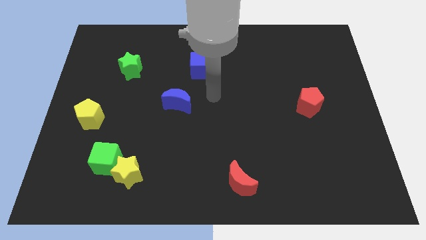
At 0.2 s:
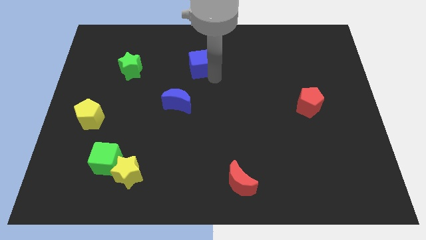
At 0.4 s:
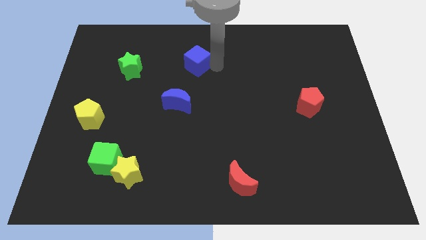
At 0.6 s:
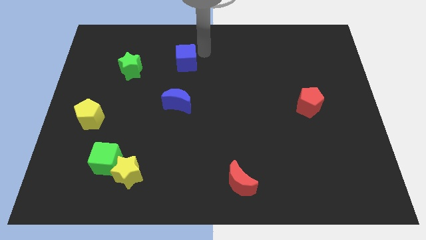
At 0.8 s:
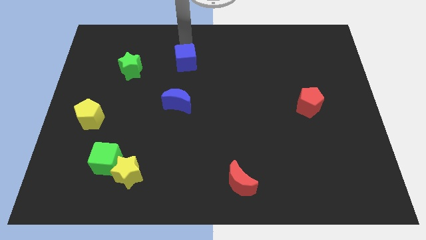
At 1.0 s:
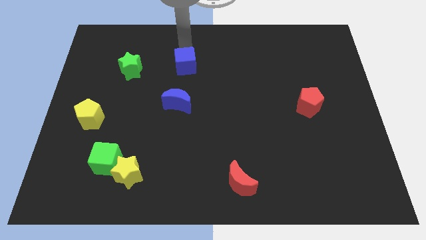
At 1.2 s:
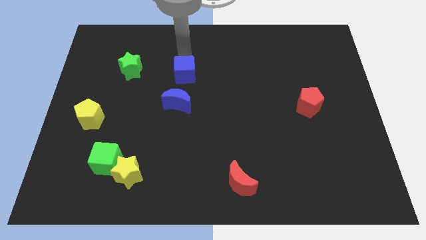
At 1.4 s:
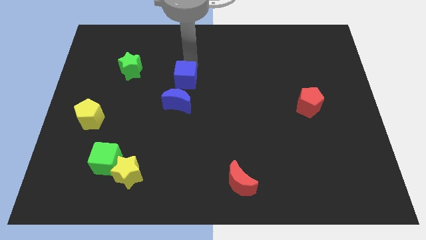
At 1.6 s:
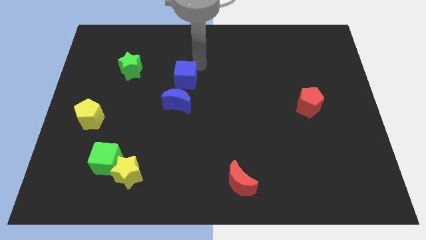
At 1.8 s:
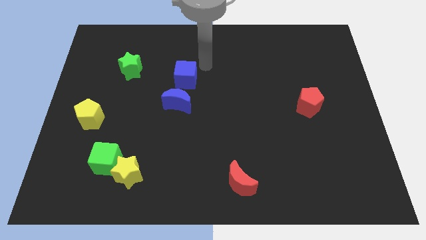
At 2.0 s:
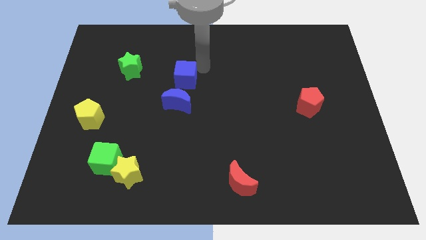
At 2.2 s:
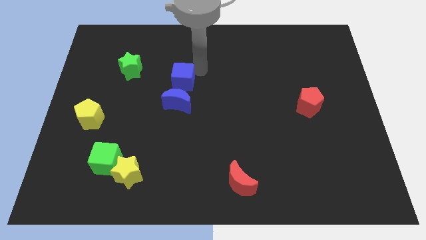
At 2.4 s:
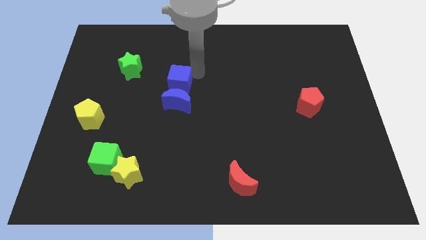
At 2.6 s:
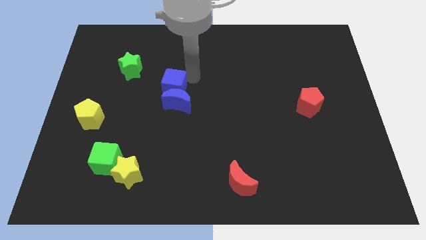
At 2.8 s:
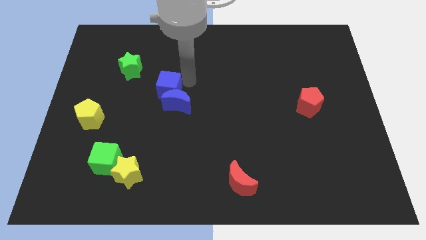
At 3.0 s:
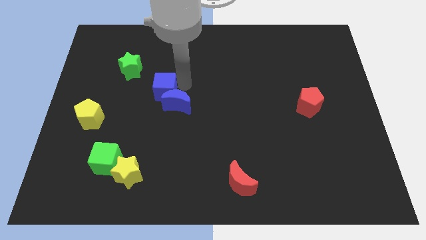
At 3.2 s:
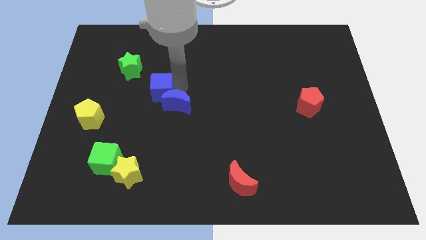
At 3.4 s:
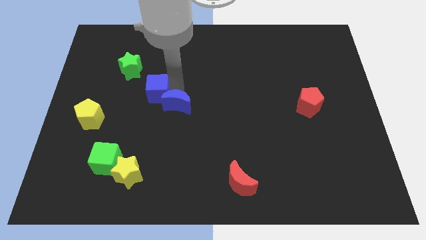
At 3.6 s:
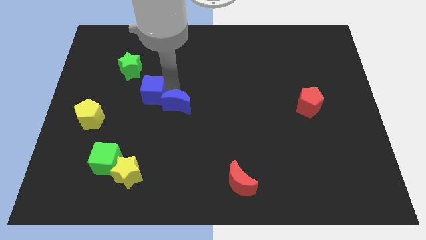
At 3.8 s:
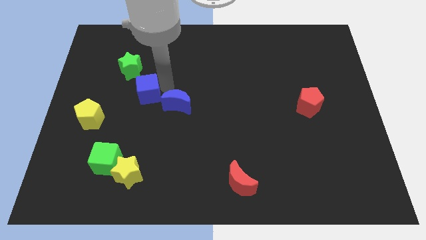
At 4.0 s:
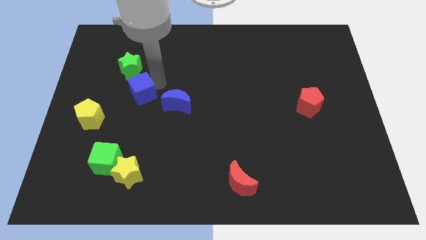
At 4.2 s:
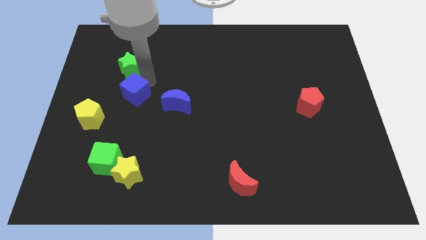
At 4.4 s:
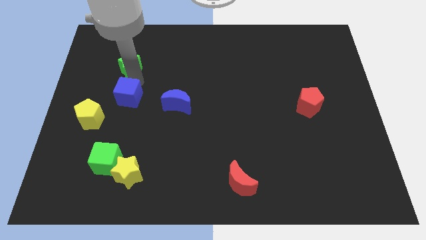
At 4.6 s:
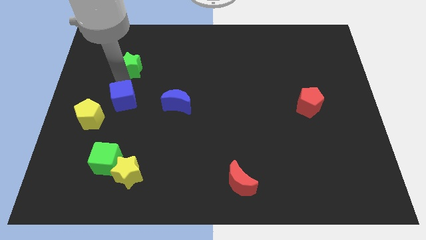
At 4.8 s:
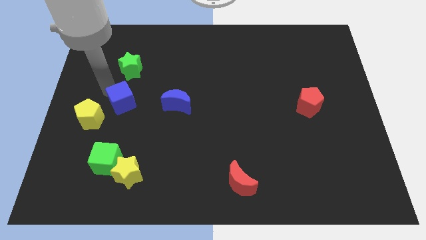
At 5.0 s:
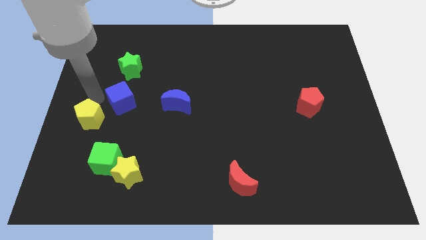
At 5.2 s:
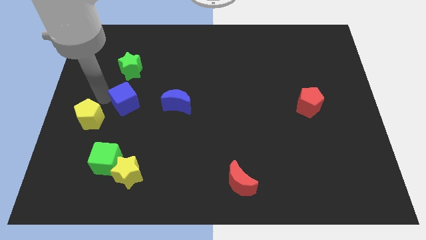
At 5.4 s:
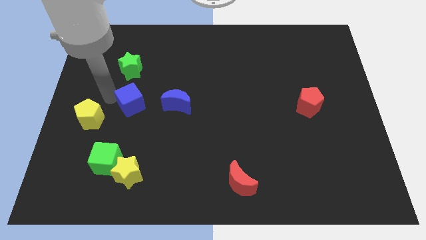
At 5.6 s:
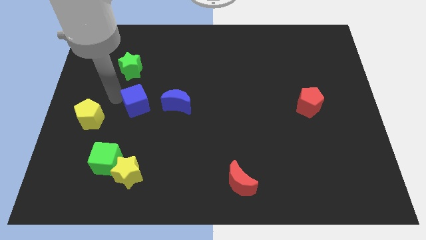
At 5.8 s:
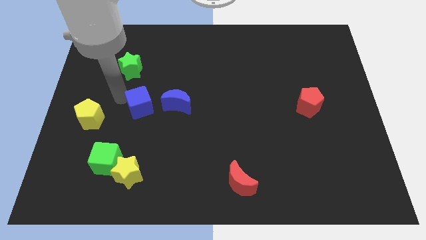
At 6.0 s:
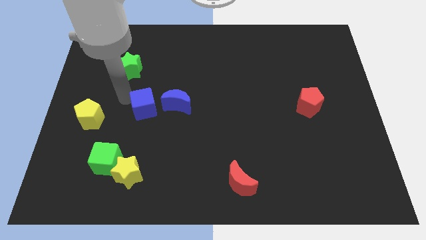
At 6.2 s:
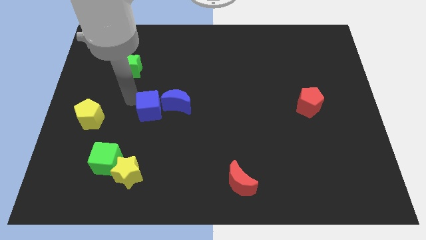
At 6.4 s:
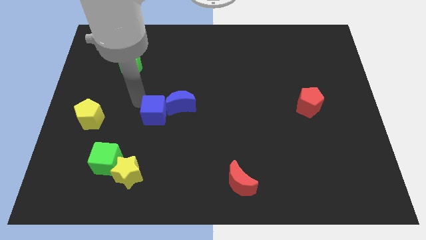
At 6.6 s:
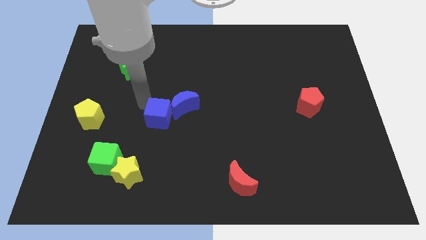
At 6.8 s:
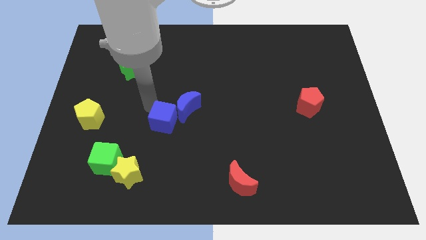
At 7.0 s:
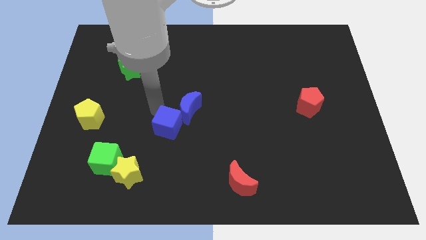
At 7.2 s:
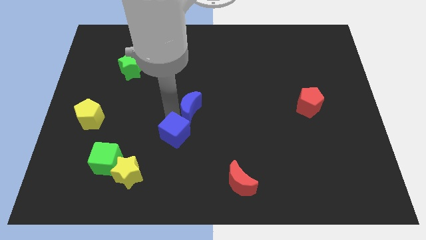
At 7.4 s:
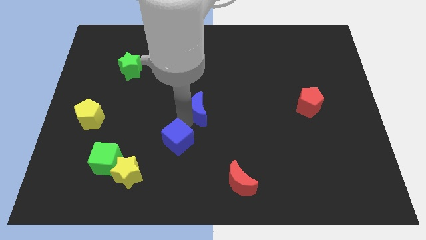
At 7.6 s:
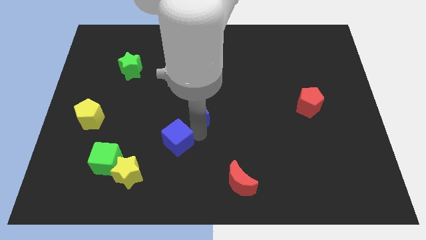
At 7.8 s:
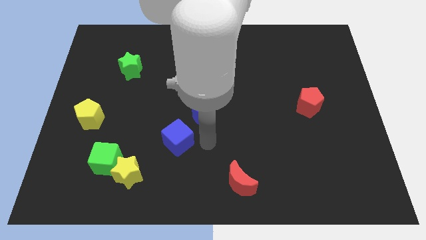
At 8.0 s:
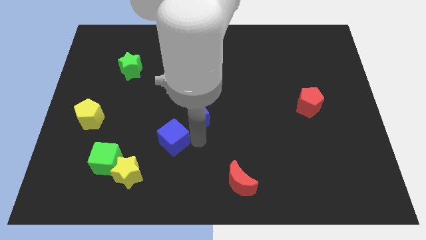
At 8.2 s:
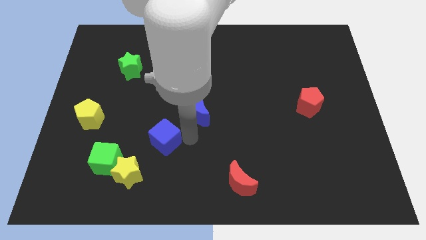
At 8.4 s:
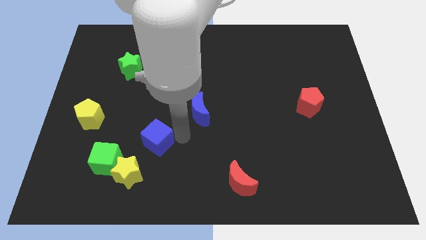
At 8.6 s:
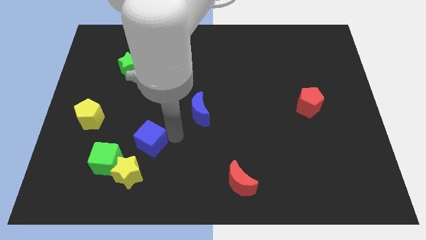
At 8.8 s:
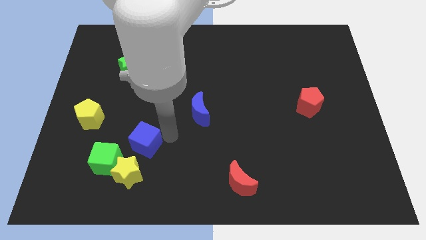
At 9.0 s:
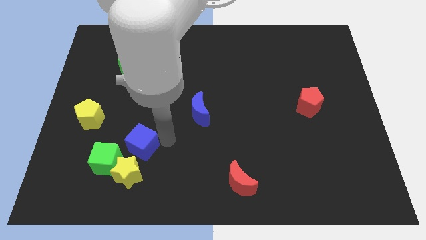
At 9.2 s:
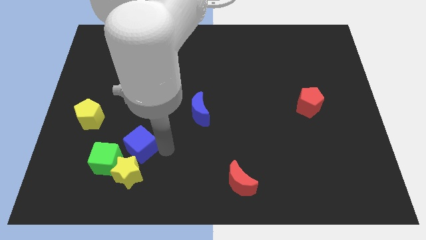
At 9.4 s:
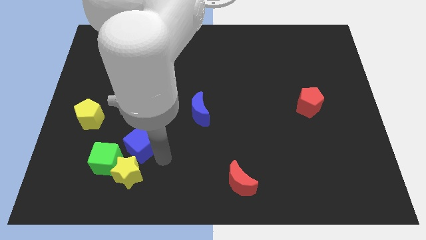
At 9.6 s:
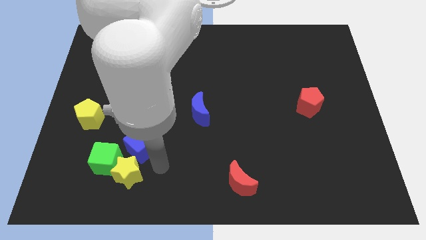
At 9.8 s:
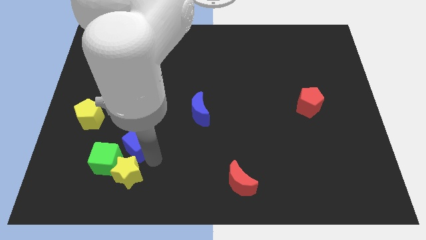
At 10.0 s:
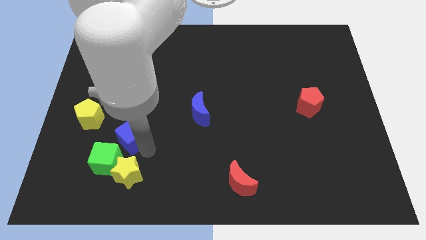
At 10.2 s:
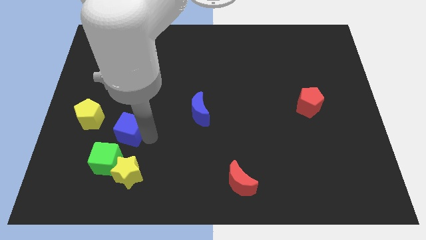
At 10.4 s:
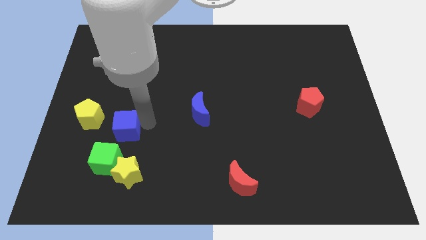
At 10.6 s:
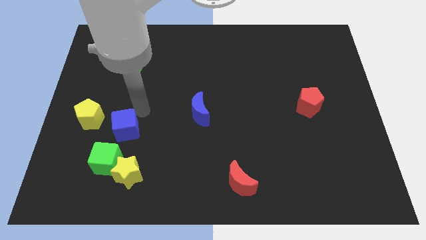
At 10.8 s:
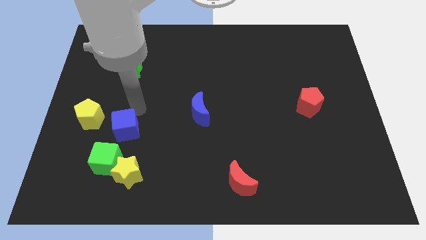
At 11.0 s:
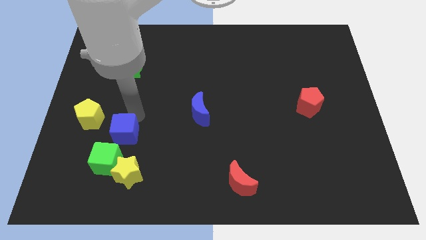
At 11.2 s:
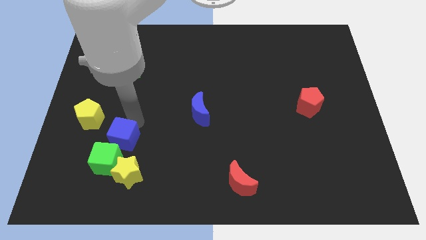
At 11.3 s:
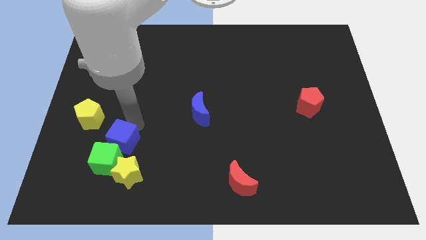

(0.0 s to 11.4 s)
move the blue cube close to the green cube

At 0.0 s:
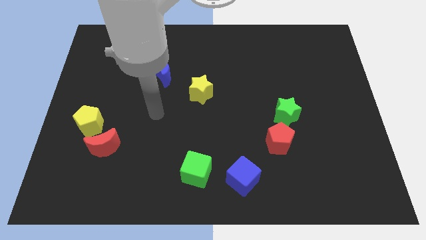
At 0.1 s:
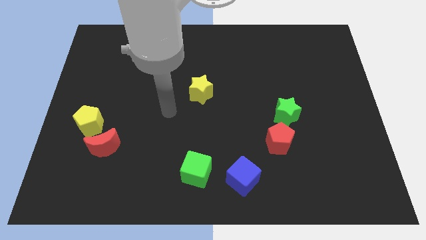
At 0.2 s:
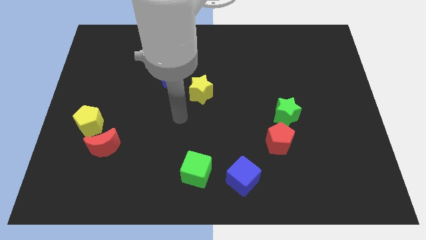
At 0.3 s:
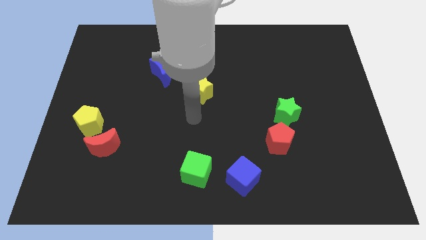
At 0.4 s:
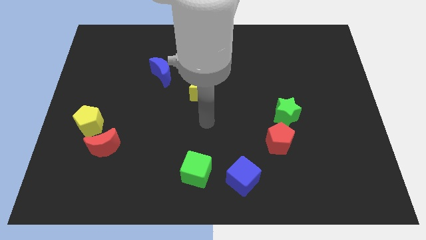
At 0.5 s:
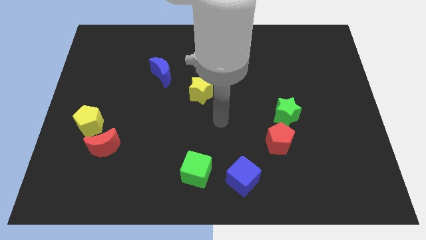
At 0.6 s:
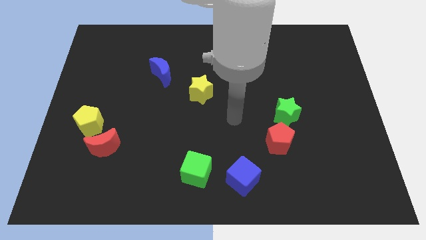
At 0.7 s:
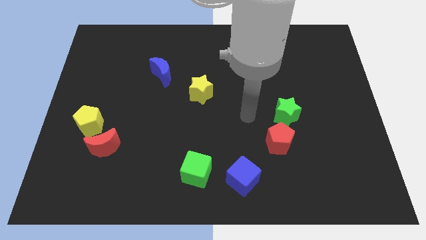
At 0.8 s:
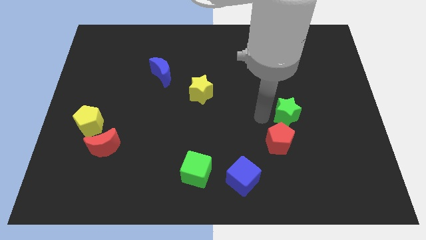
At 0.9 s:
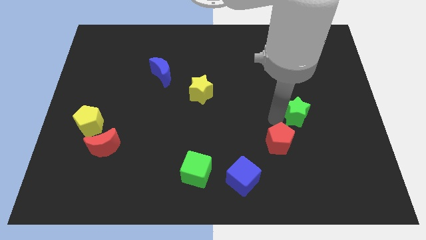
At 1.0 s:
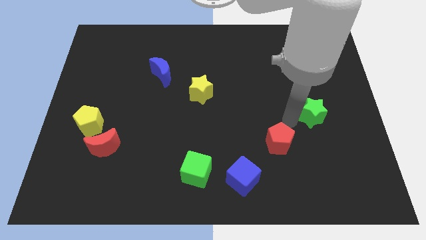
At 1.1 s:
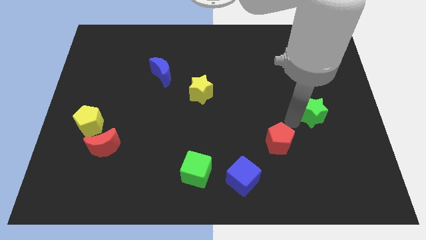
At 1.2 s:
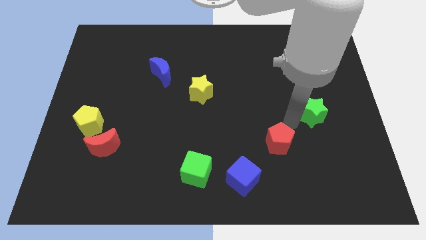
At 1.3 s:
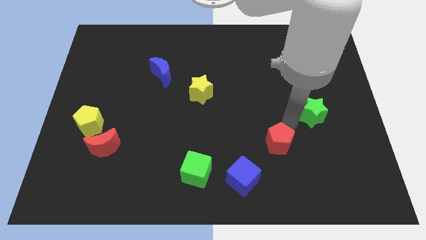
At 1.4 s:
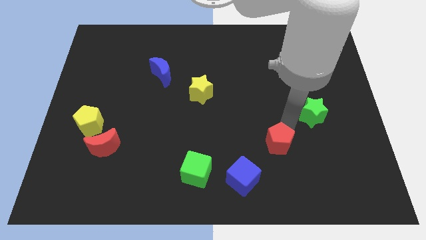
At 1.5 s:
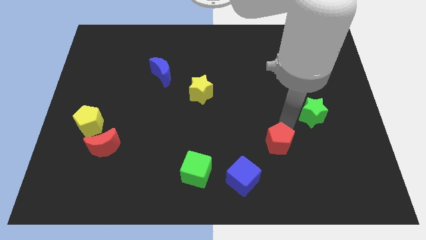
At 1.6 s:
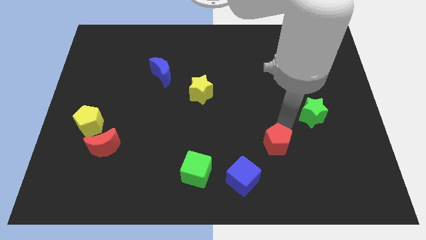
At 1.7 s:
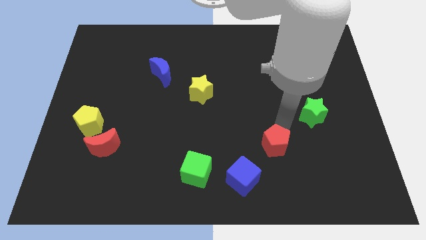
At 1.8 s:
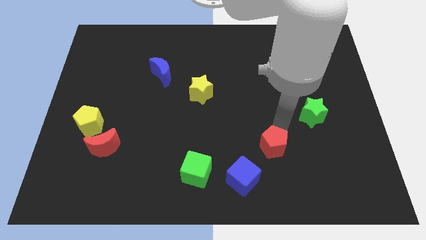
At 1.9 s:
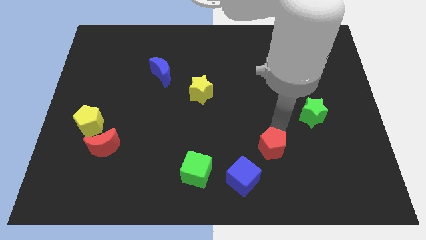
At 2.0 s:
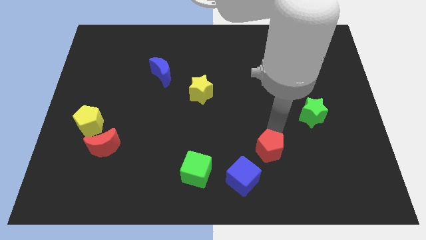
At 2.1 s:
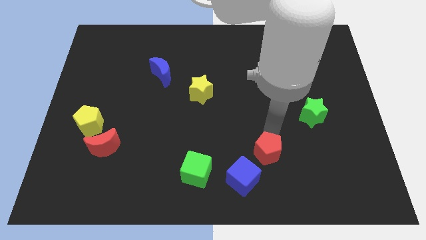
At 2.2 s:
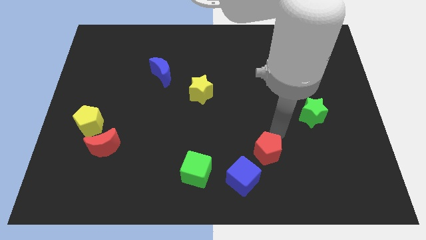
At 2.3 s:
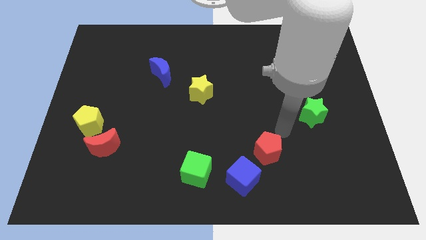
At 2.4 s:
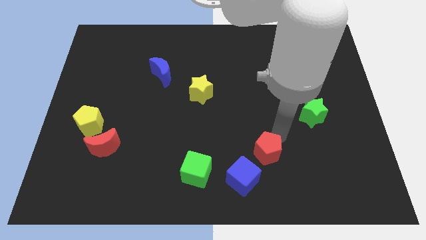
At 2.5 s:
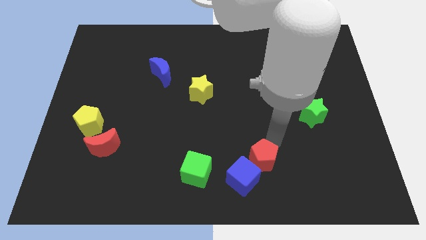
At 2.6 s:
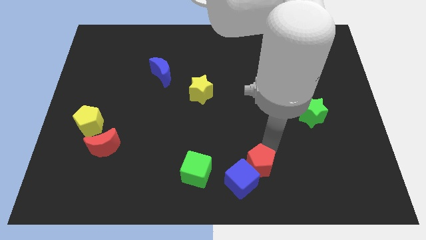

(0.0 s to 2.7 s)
slide the red pentagon close to the blue cube
